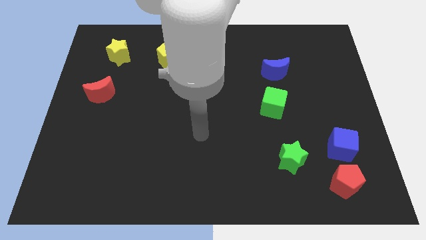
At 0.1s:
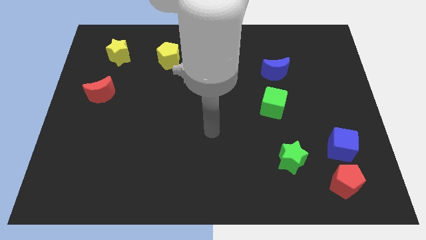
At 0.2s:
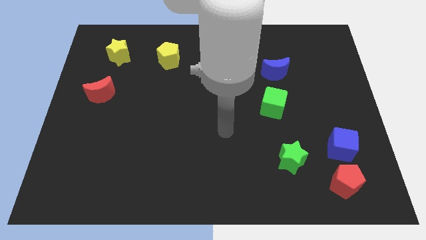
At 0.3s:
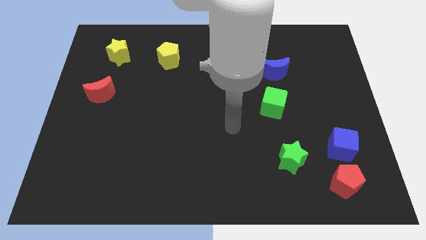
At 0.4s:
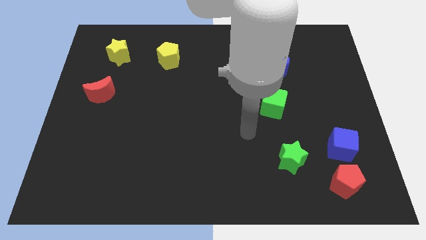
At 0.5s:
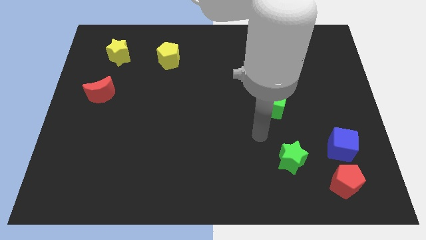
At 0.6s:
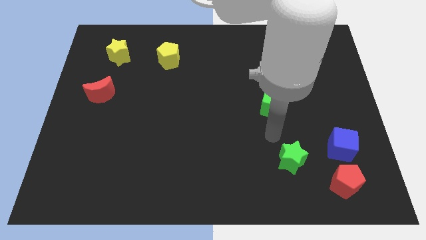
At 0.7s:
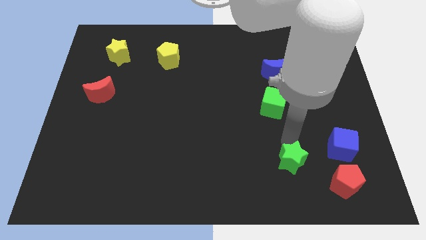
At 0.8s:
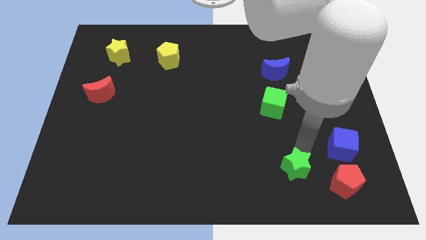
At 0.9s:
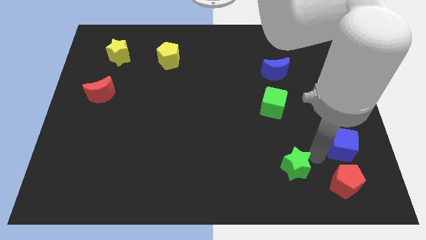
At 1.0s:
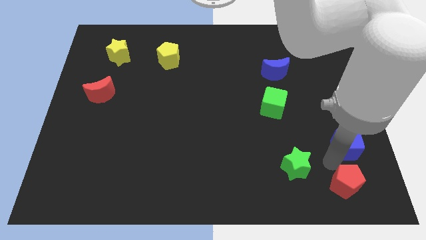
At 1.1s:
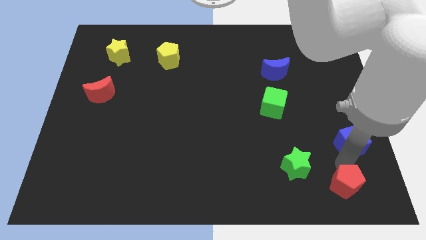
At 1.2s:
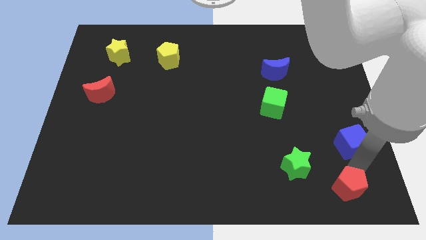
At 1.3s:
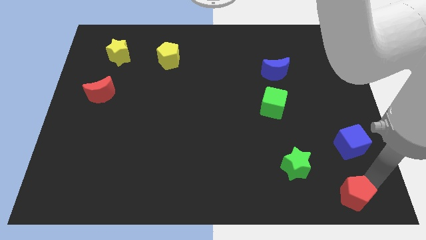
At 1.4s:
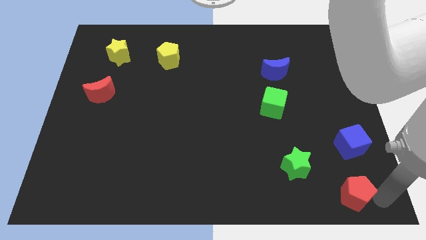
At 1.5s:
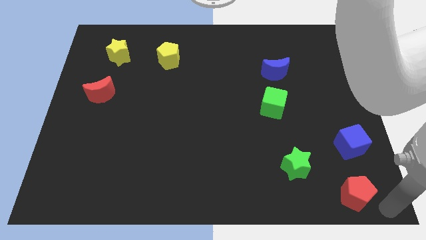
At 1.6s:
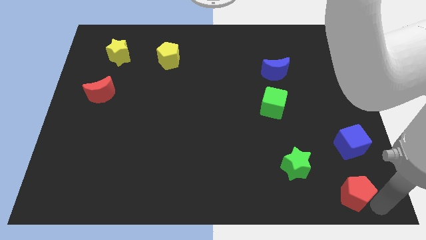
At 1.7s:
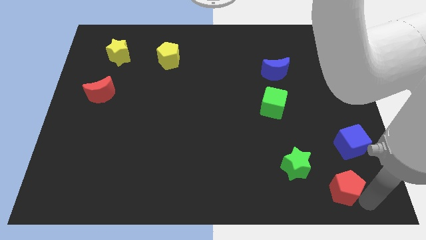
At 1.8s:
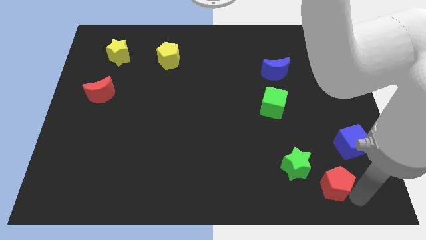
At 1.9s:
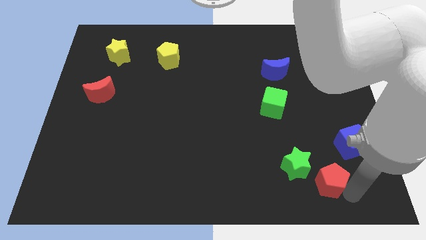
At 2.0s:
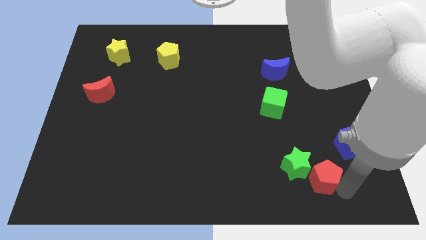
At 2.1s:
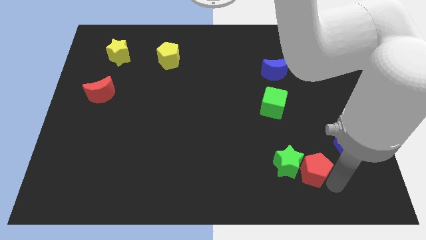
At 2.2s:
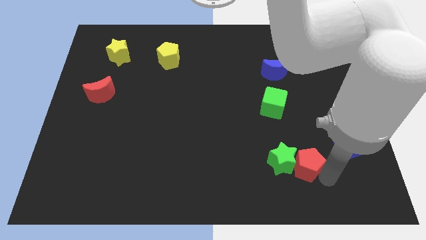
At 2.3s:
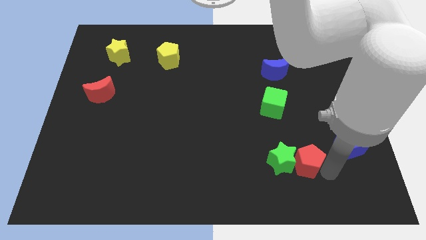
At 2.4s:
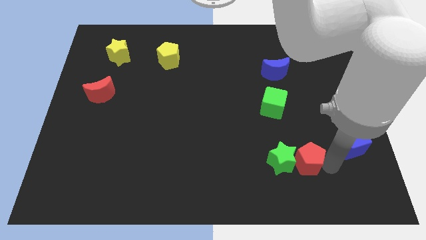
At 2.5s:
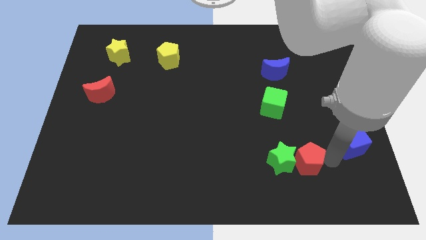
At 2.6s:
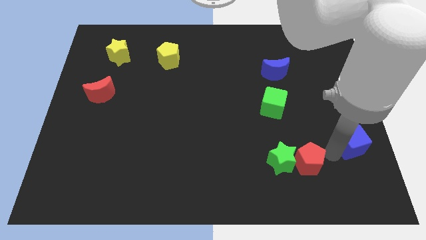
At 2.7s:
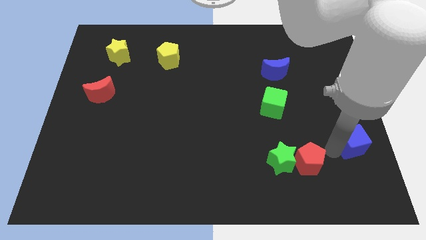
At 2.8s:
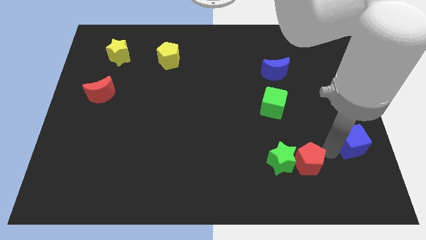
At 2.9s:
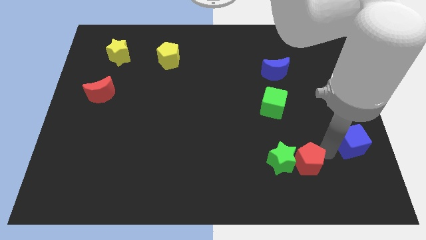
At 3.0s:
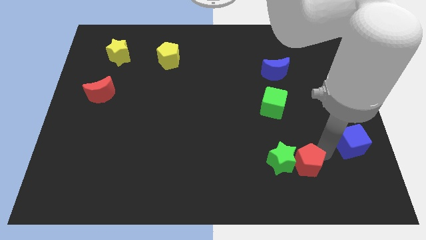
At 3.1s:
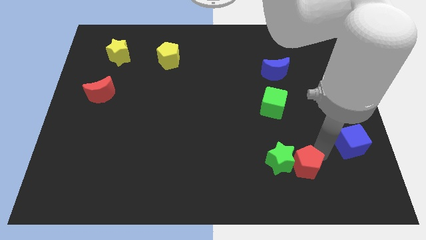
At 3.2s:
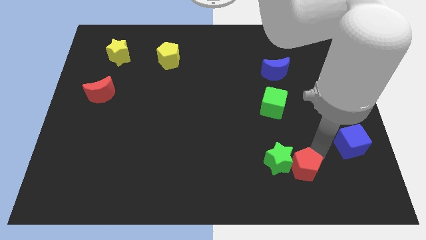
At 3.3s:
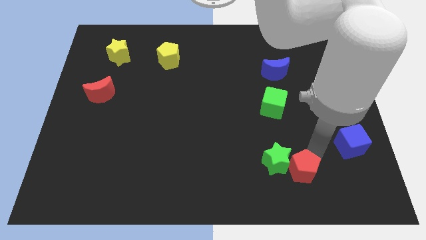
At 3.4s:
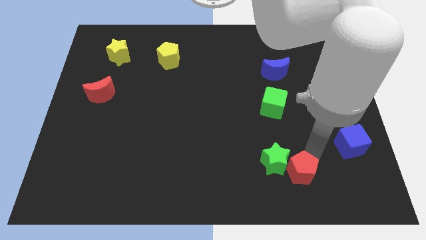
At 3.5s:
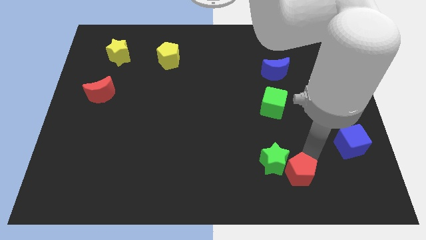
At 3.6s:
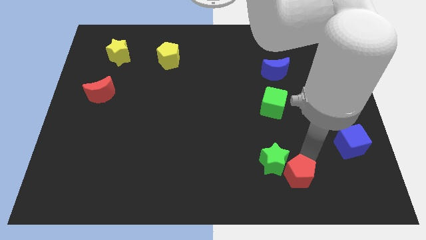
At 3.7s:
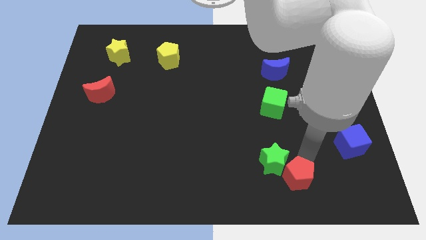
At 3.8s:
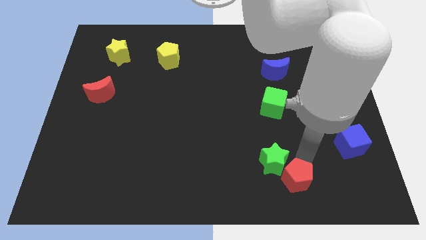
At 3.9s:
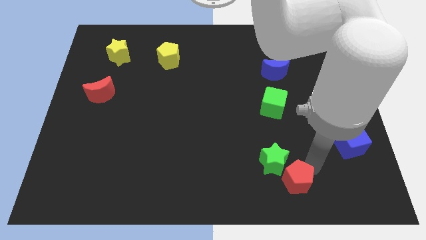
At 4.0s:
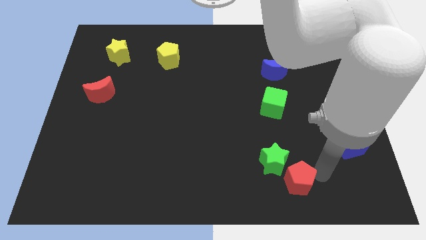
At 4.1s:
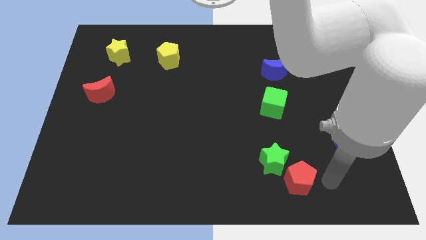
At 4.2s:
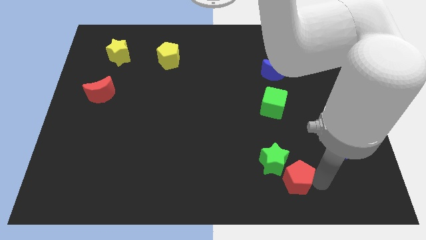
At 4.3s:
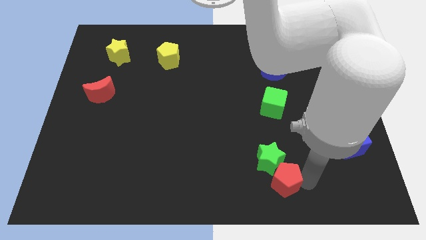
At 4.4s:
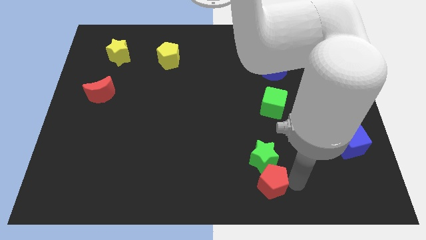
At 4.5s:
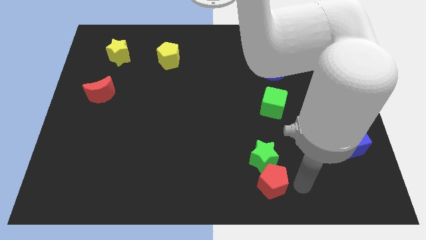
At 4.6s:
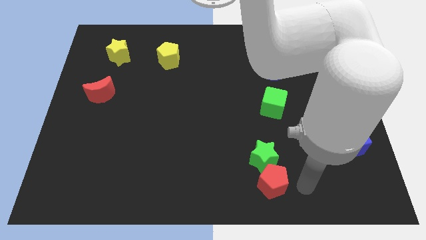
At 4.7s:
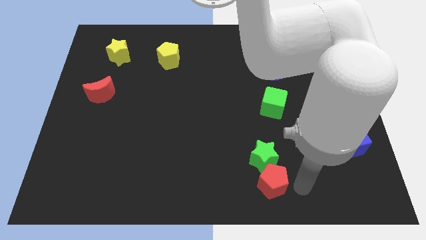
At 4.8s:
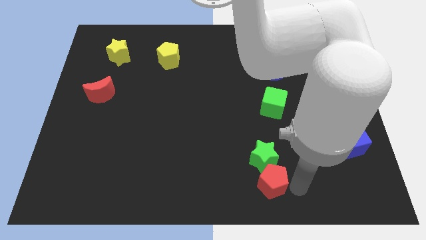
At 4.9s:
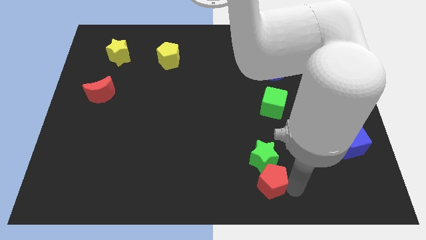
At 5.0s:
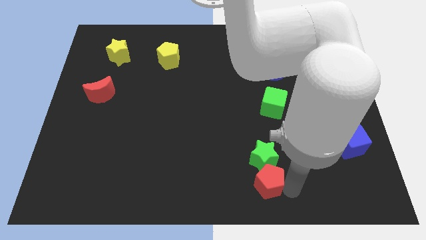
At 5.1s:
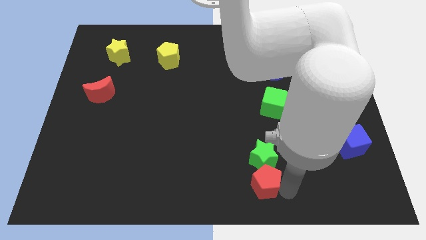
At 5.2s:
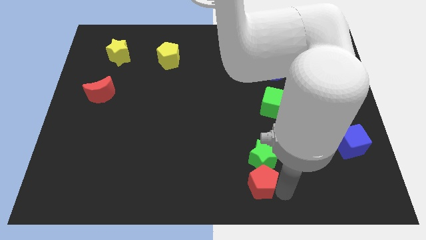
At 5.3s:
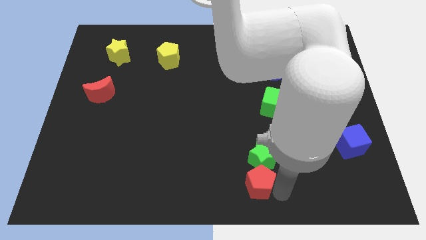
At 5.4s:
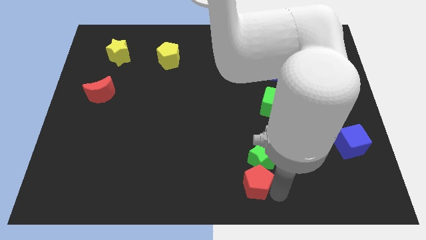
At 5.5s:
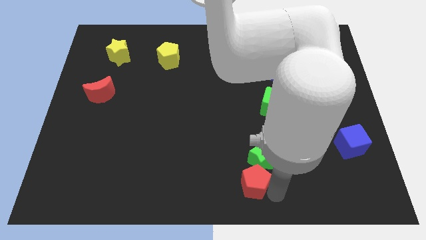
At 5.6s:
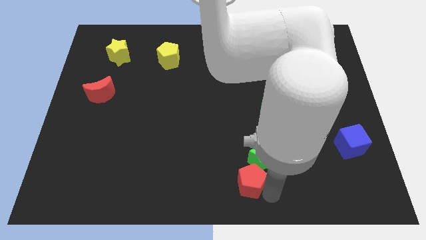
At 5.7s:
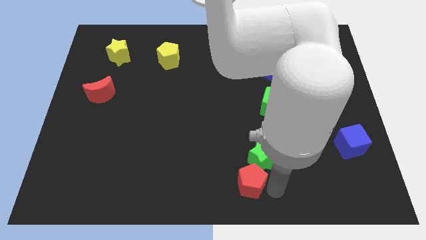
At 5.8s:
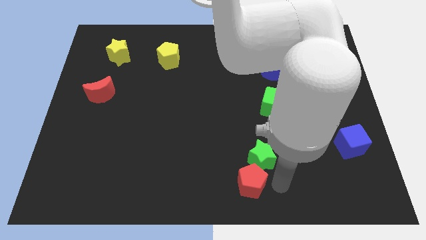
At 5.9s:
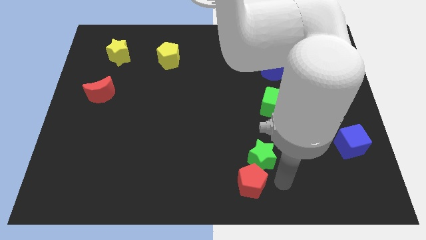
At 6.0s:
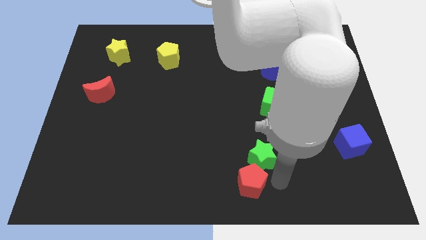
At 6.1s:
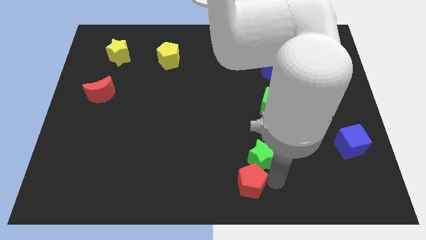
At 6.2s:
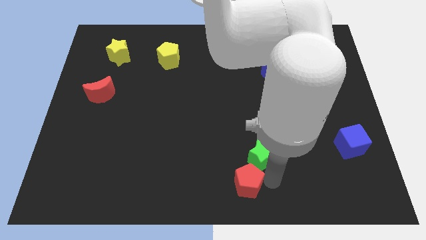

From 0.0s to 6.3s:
move the red pentagon to the left

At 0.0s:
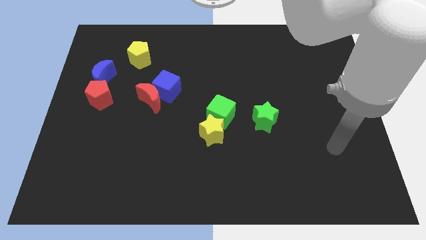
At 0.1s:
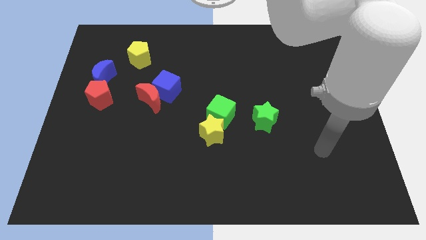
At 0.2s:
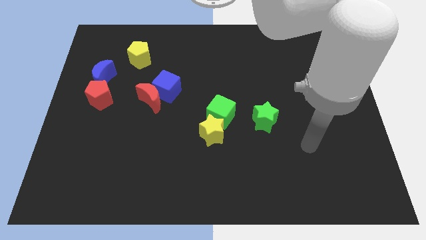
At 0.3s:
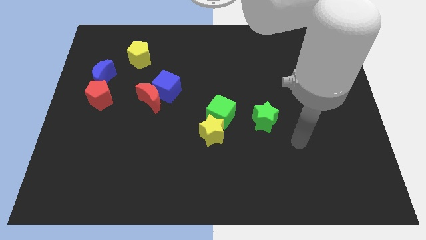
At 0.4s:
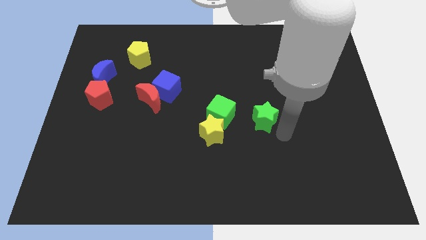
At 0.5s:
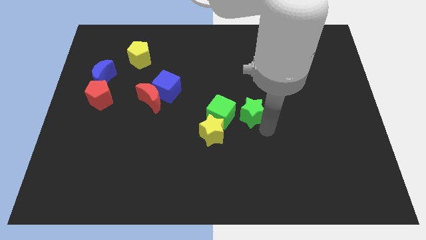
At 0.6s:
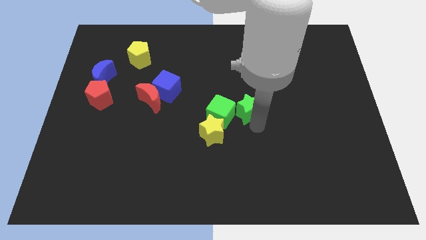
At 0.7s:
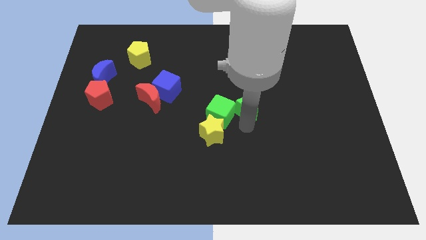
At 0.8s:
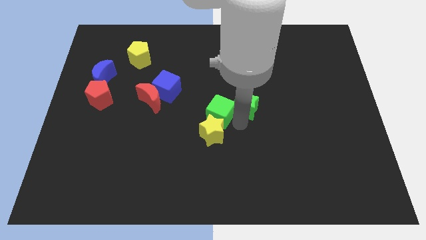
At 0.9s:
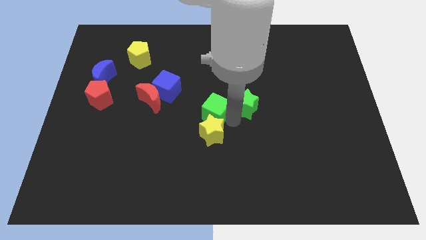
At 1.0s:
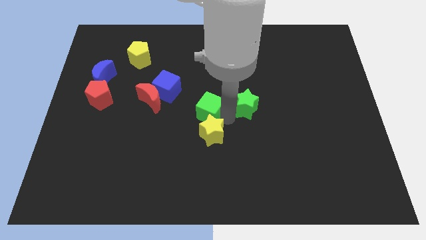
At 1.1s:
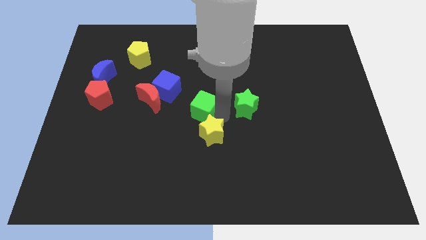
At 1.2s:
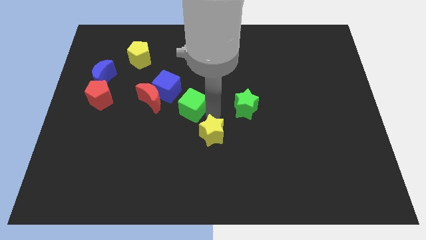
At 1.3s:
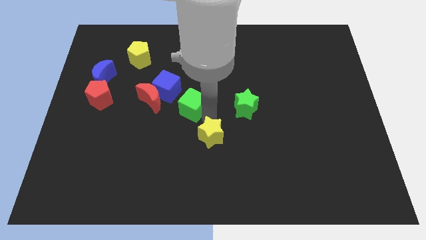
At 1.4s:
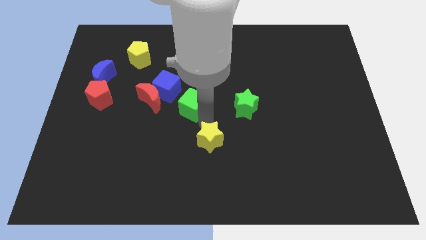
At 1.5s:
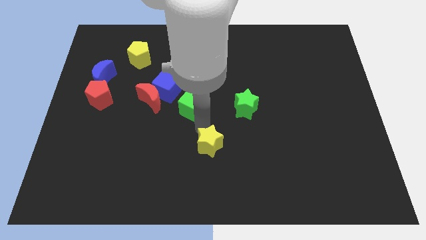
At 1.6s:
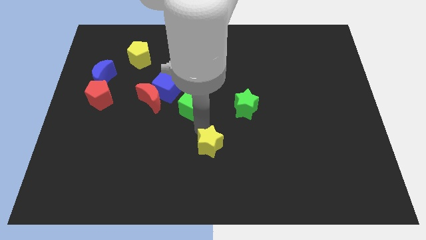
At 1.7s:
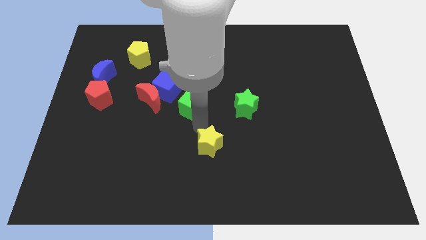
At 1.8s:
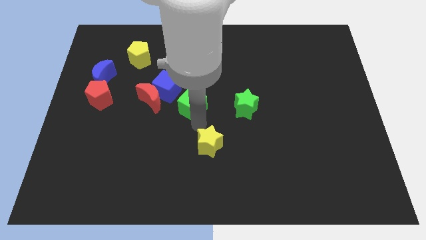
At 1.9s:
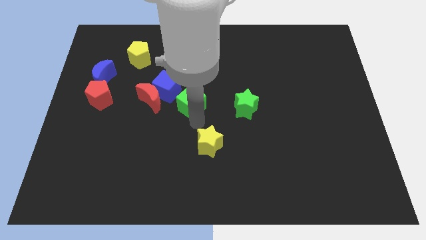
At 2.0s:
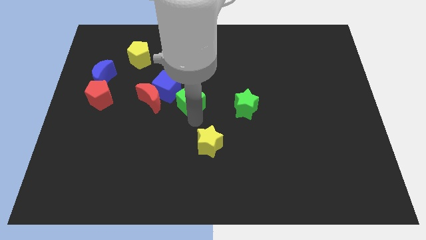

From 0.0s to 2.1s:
move the green cube a little diagonally upwards and left
